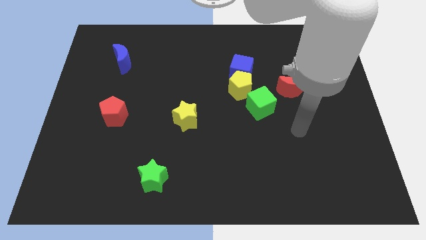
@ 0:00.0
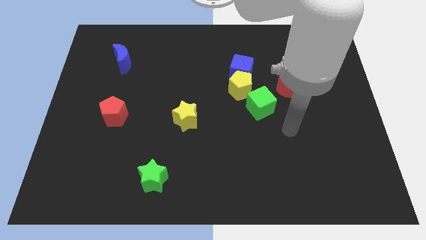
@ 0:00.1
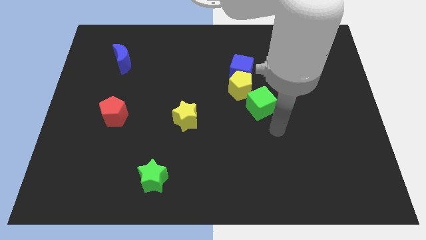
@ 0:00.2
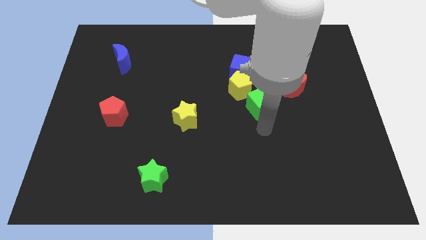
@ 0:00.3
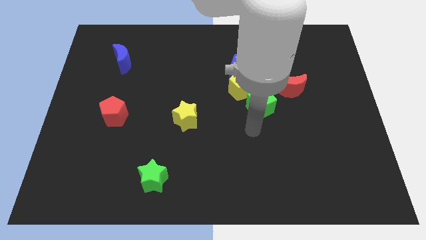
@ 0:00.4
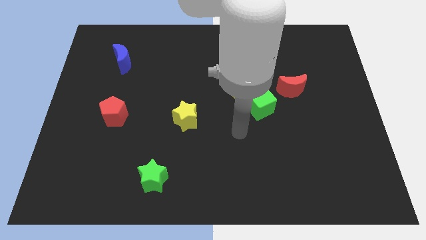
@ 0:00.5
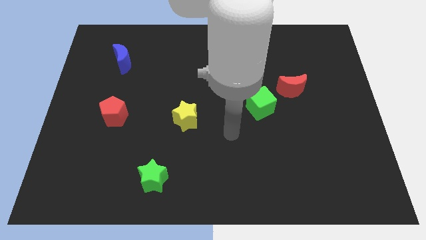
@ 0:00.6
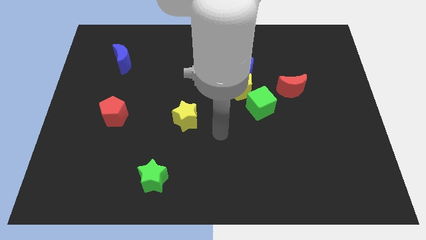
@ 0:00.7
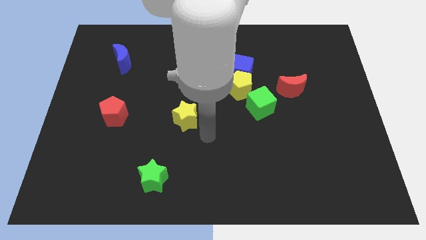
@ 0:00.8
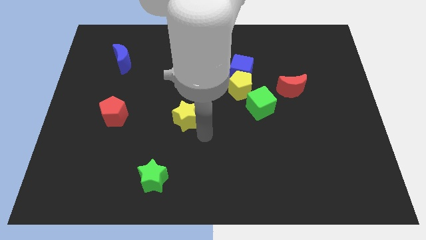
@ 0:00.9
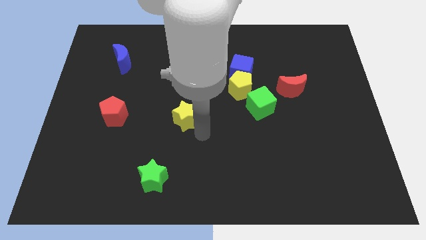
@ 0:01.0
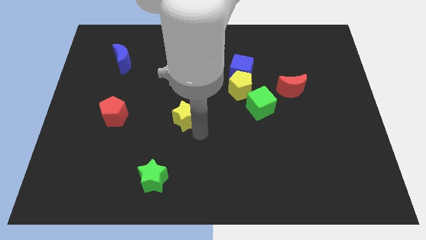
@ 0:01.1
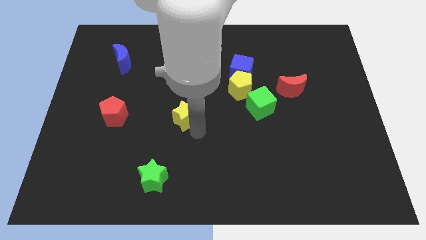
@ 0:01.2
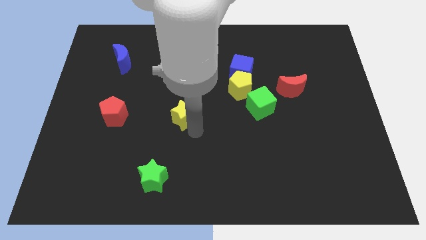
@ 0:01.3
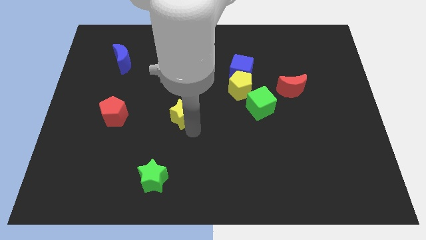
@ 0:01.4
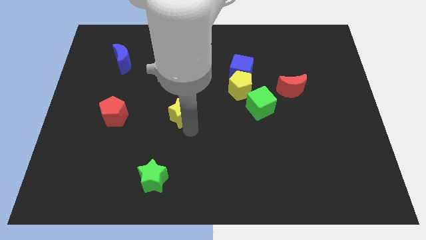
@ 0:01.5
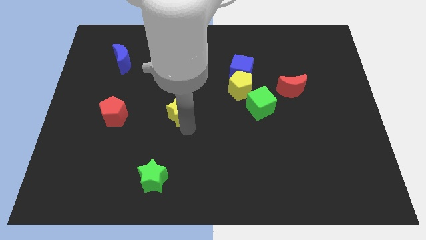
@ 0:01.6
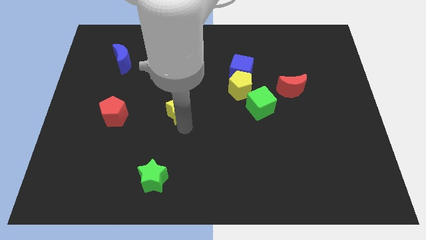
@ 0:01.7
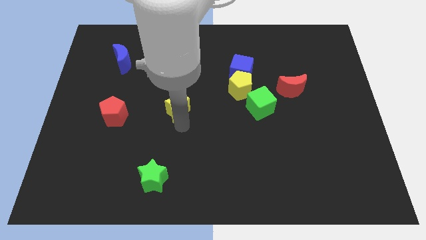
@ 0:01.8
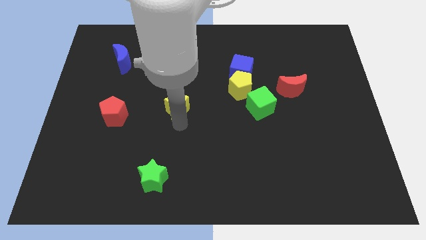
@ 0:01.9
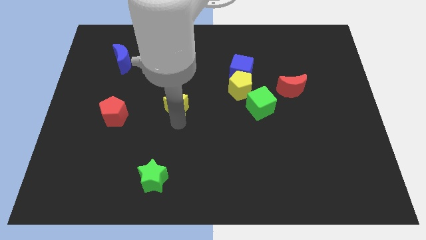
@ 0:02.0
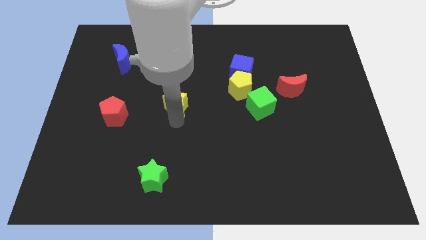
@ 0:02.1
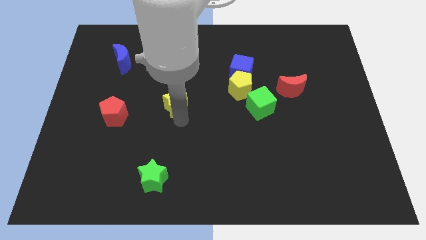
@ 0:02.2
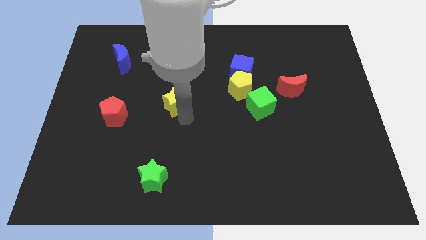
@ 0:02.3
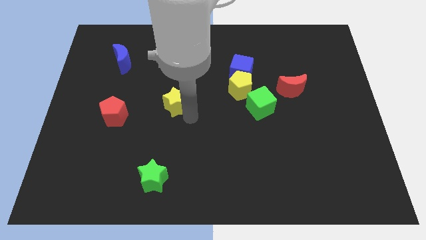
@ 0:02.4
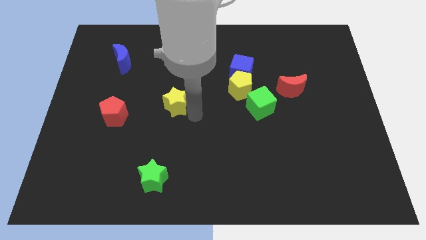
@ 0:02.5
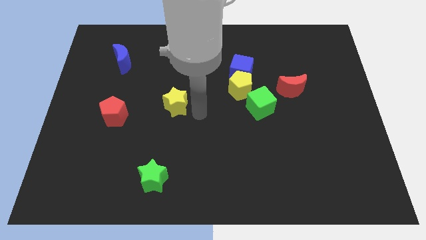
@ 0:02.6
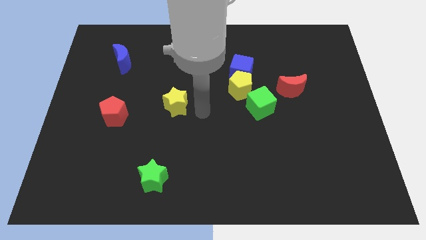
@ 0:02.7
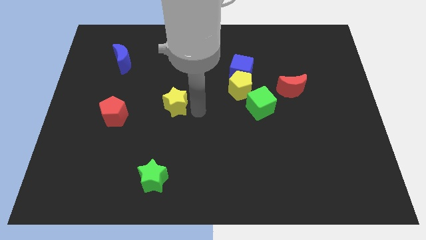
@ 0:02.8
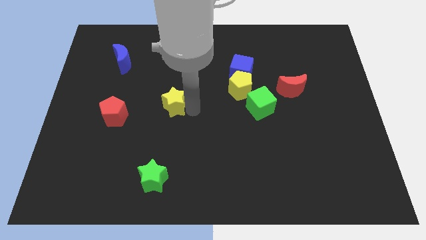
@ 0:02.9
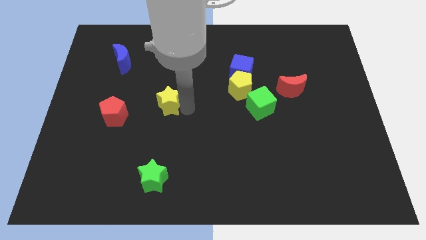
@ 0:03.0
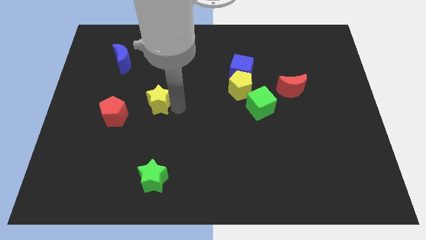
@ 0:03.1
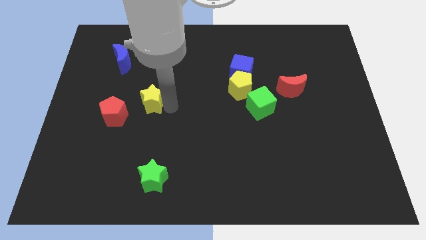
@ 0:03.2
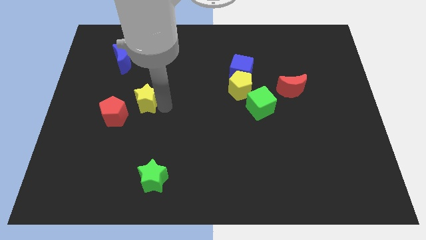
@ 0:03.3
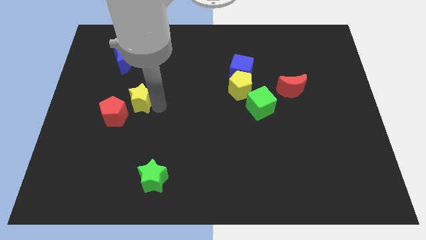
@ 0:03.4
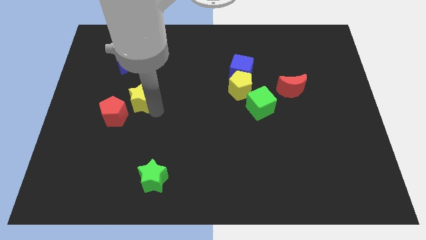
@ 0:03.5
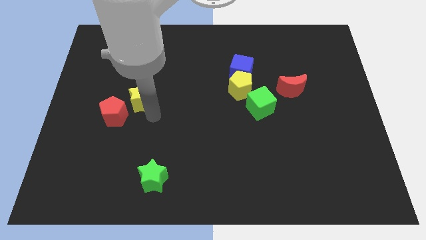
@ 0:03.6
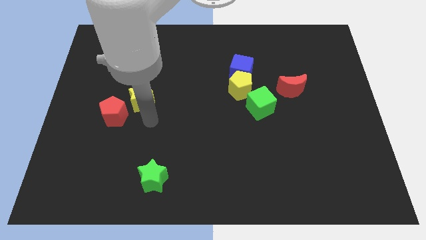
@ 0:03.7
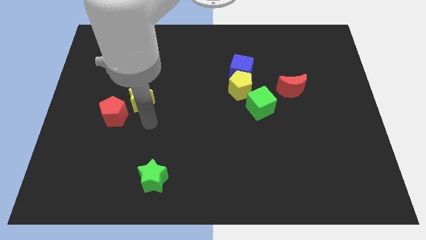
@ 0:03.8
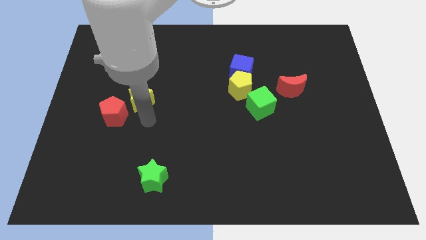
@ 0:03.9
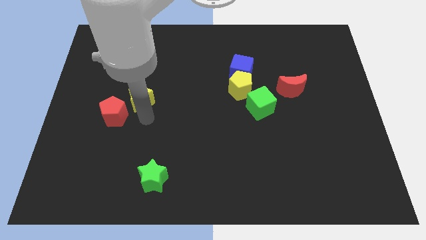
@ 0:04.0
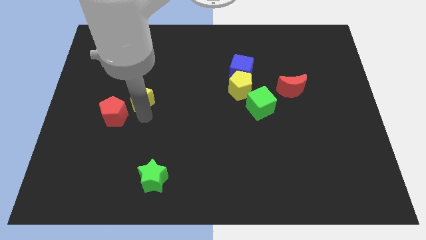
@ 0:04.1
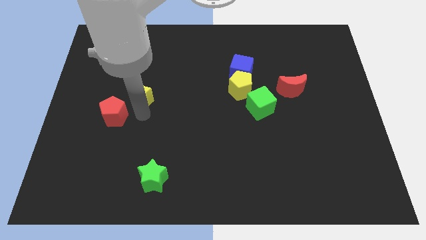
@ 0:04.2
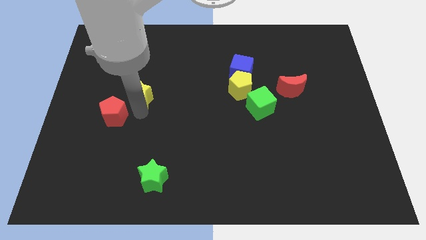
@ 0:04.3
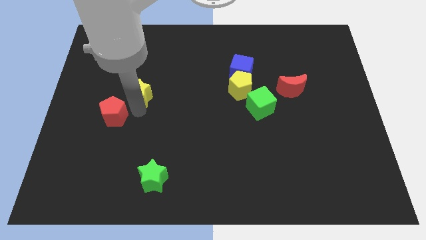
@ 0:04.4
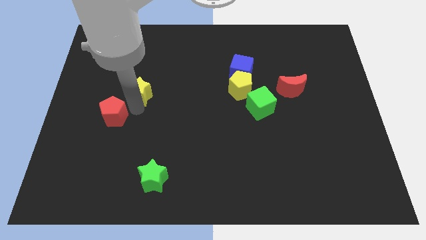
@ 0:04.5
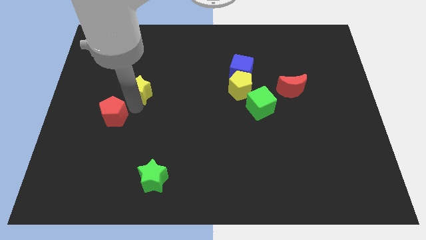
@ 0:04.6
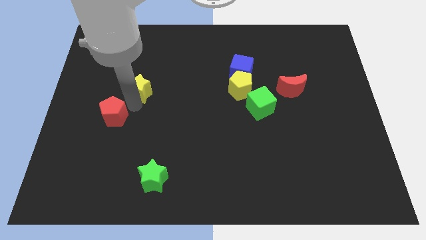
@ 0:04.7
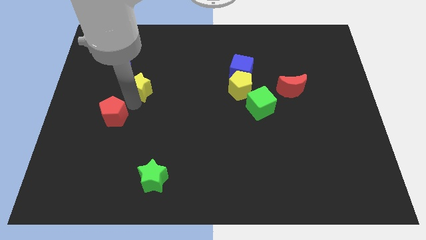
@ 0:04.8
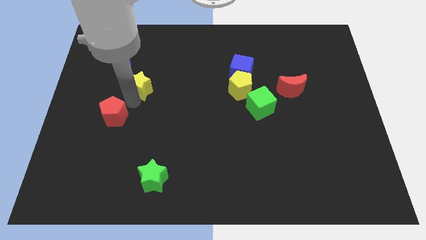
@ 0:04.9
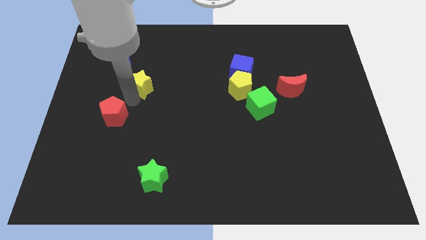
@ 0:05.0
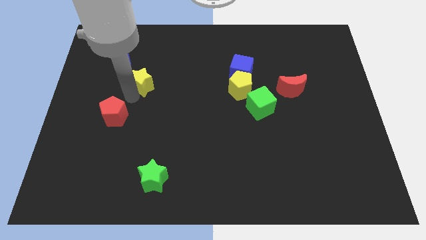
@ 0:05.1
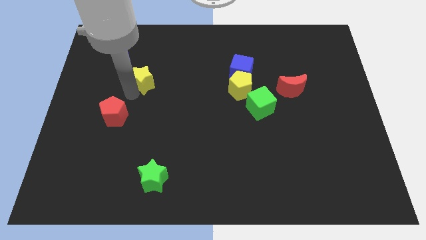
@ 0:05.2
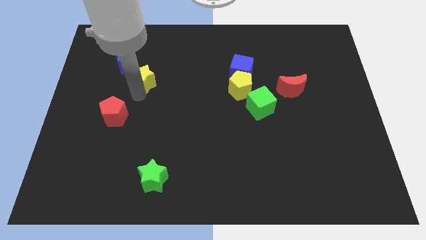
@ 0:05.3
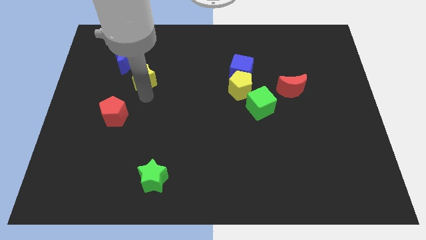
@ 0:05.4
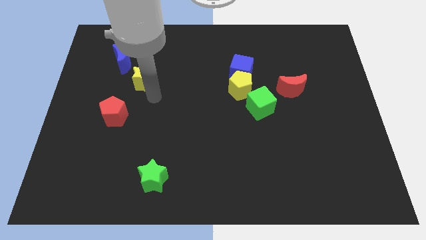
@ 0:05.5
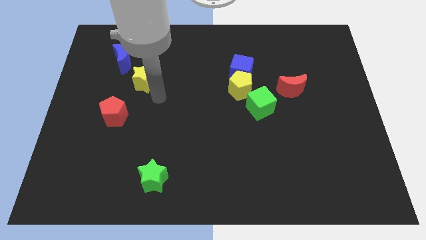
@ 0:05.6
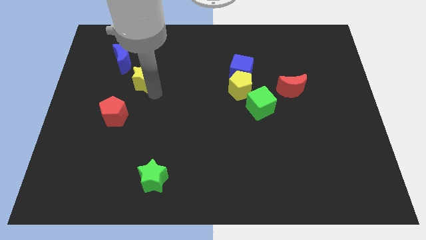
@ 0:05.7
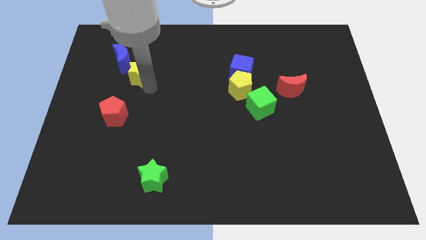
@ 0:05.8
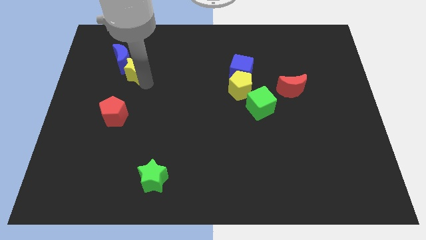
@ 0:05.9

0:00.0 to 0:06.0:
put the yellow star towards the blue moon

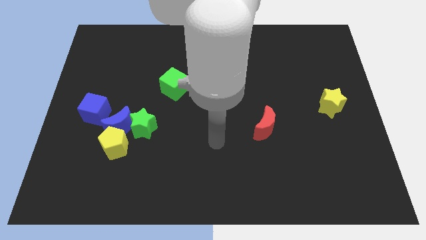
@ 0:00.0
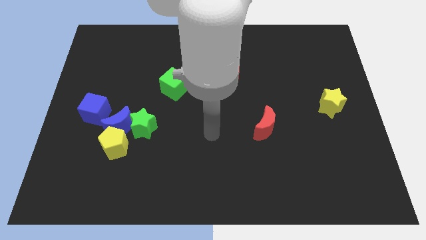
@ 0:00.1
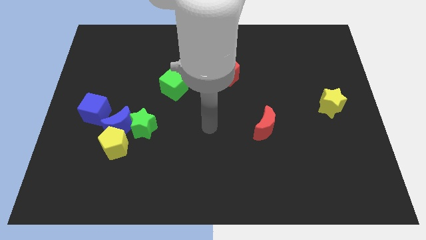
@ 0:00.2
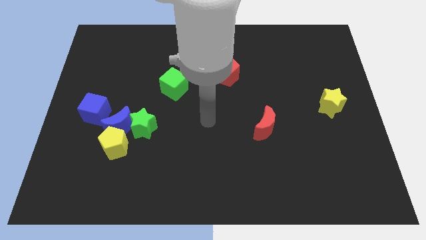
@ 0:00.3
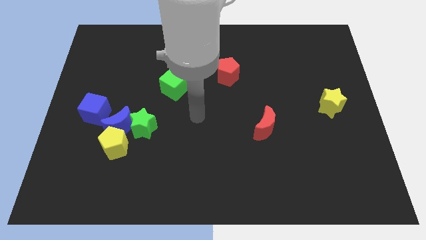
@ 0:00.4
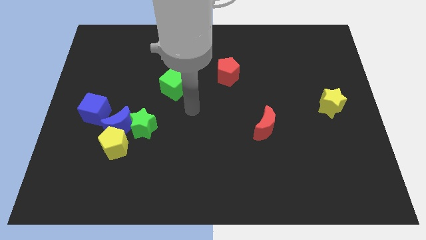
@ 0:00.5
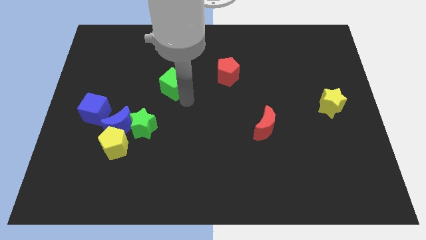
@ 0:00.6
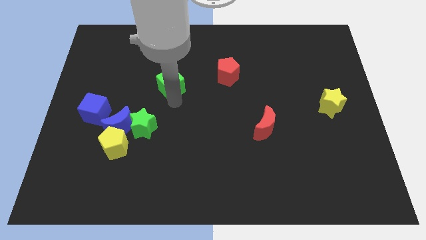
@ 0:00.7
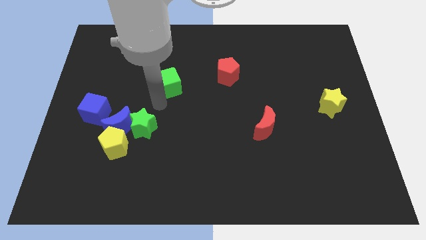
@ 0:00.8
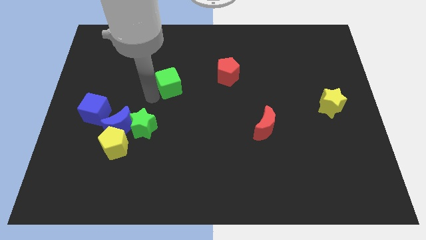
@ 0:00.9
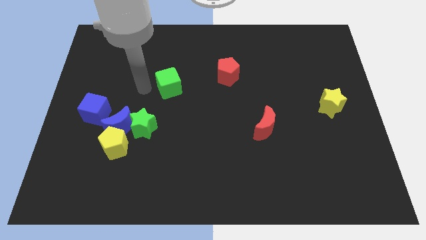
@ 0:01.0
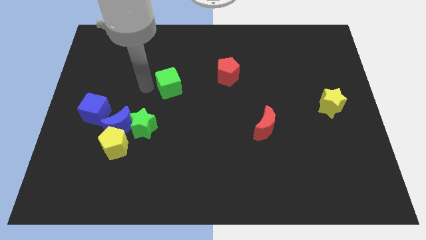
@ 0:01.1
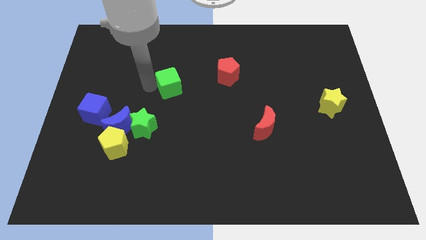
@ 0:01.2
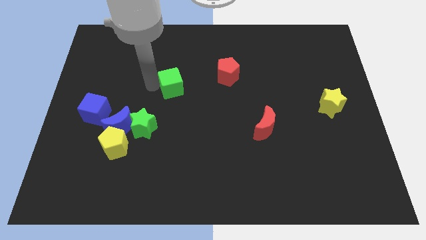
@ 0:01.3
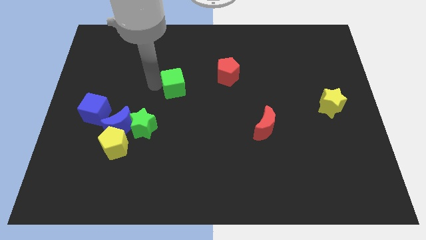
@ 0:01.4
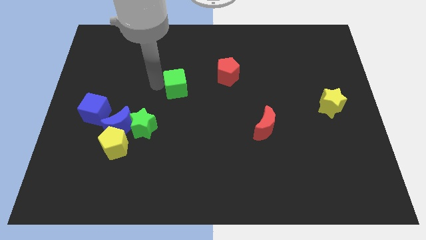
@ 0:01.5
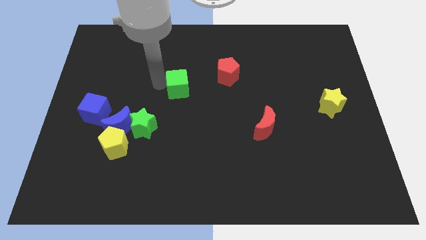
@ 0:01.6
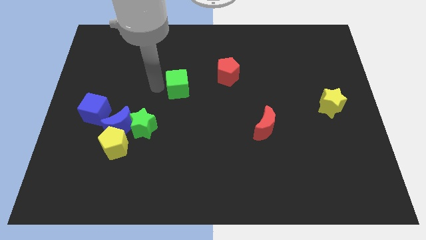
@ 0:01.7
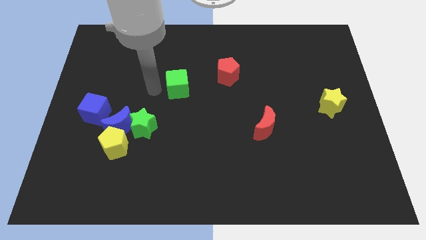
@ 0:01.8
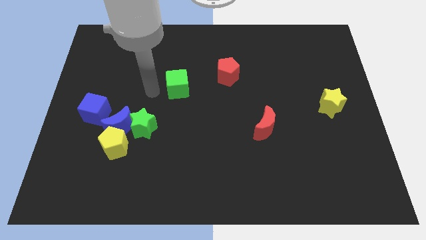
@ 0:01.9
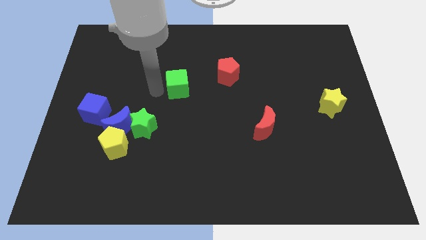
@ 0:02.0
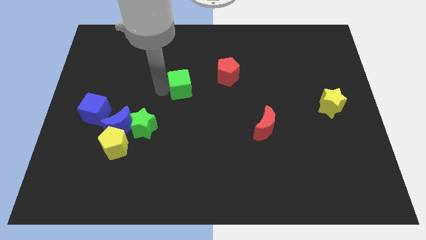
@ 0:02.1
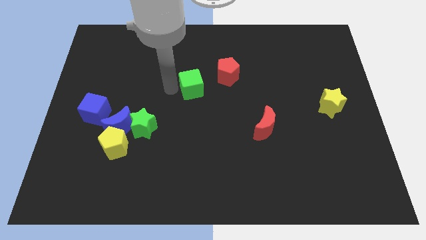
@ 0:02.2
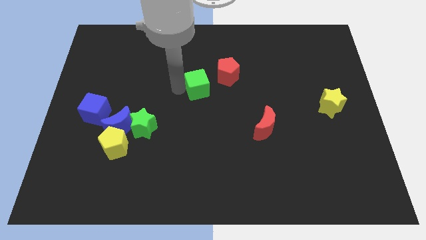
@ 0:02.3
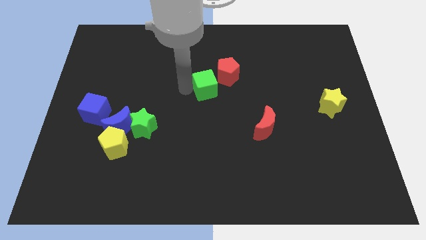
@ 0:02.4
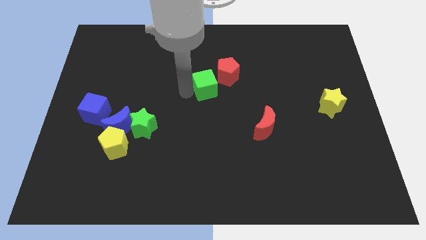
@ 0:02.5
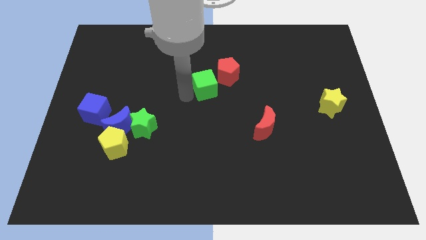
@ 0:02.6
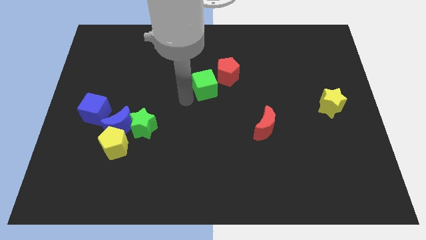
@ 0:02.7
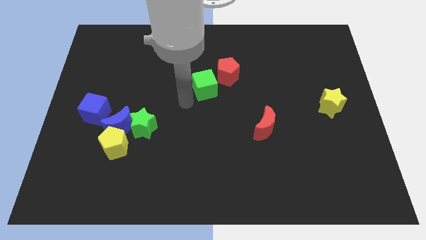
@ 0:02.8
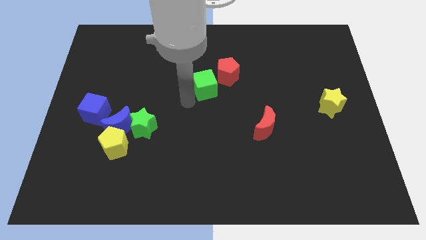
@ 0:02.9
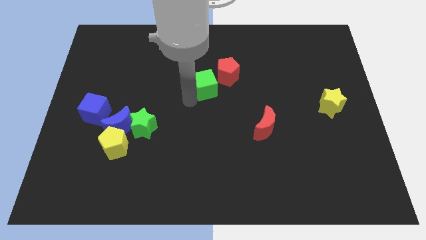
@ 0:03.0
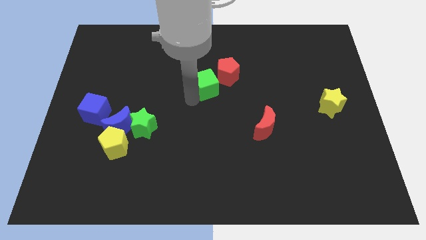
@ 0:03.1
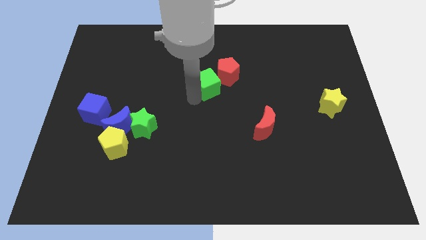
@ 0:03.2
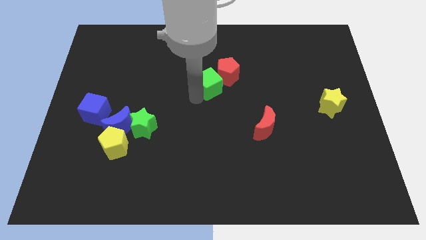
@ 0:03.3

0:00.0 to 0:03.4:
slide the green cube to the red pentagon
